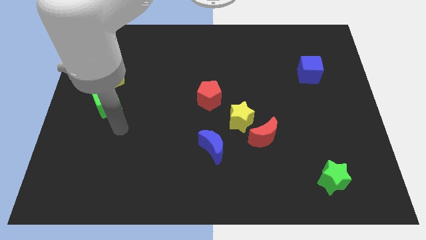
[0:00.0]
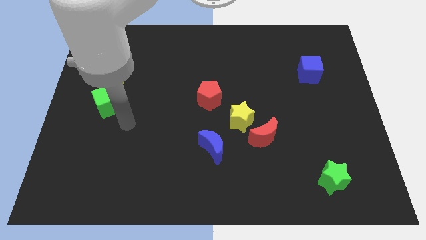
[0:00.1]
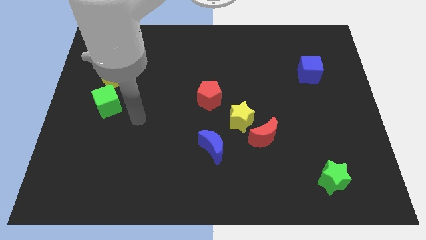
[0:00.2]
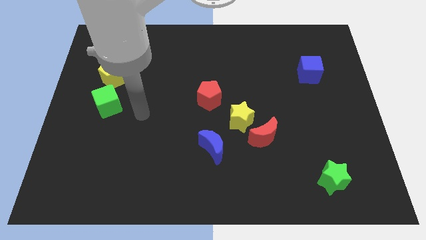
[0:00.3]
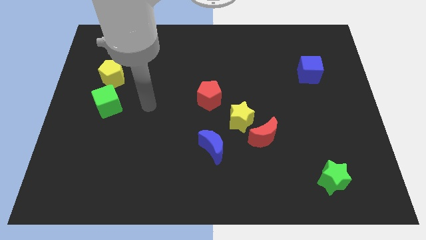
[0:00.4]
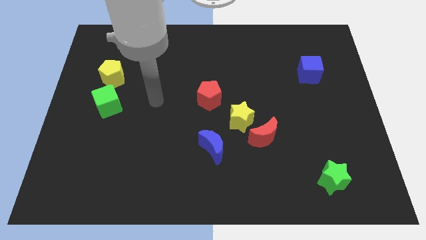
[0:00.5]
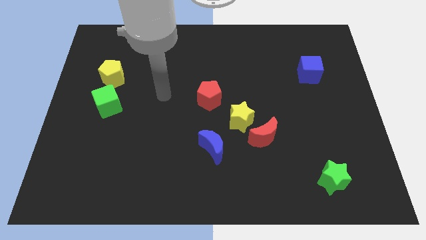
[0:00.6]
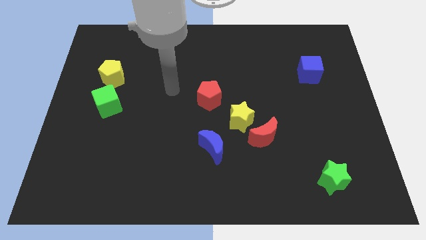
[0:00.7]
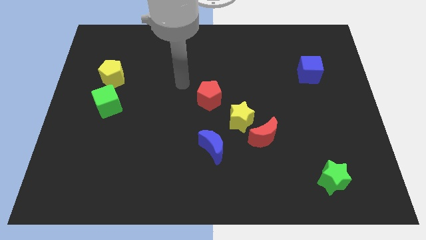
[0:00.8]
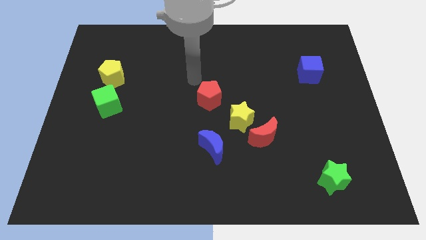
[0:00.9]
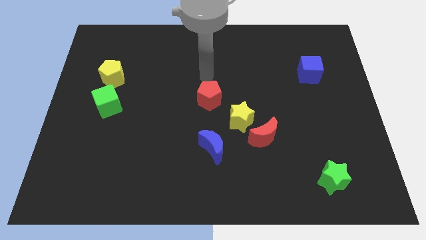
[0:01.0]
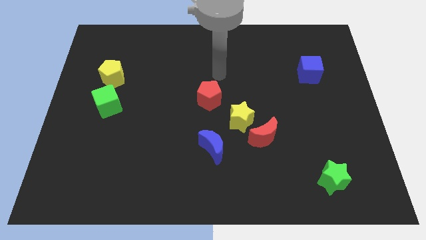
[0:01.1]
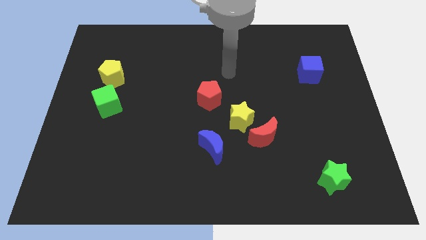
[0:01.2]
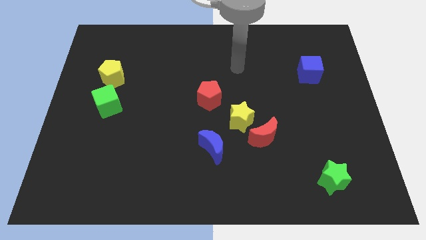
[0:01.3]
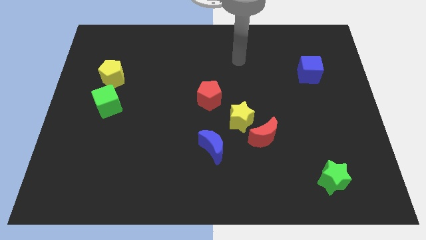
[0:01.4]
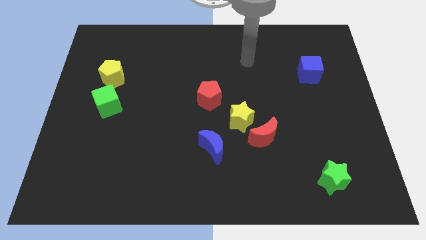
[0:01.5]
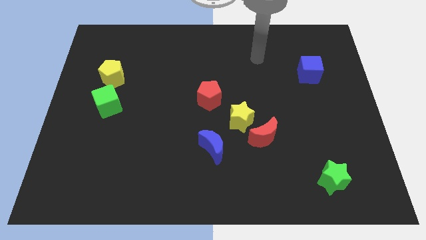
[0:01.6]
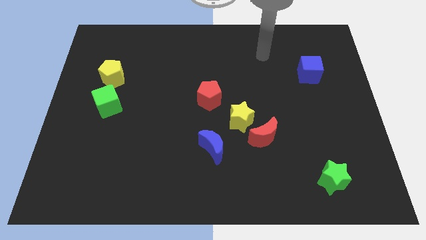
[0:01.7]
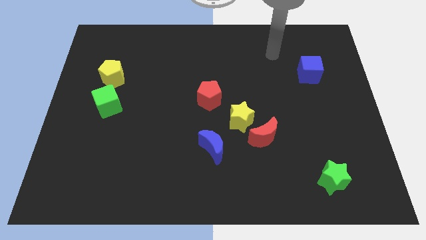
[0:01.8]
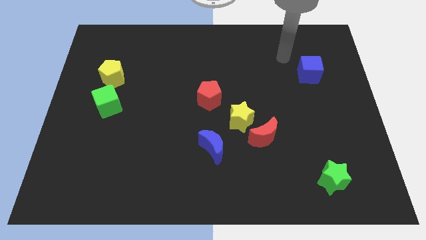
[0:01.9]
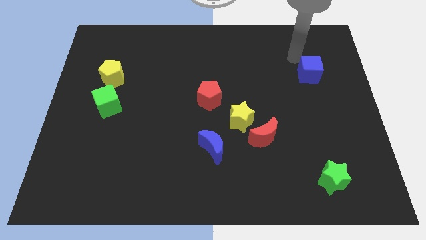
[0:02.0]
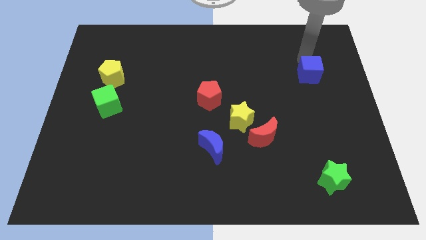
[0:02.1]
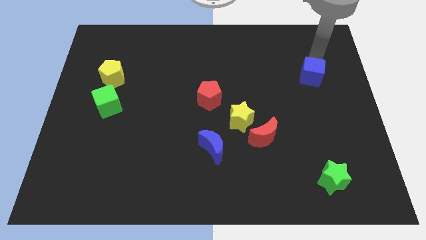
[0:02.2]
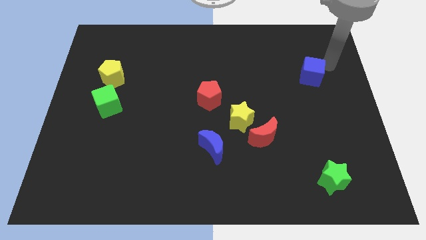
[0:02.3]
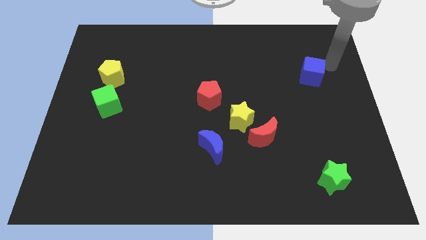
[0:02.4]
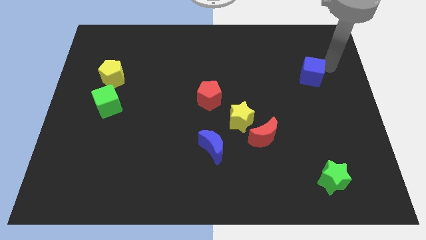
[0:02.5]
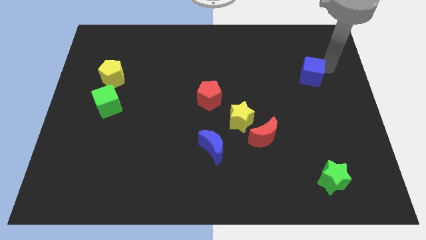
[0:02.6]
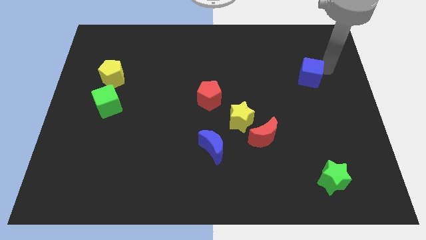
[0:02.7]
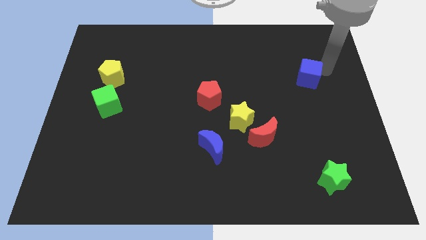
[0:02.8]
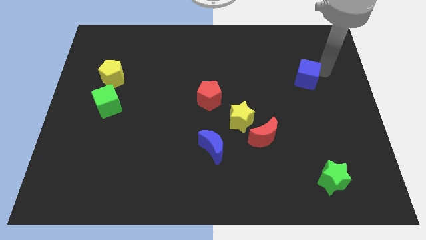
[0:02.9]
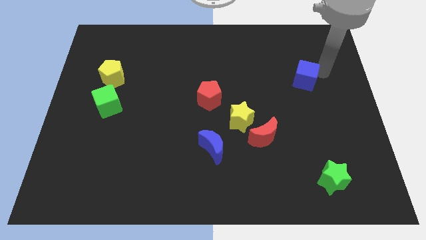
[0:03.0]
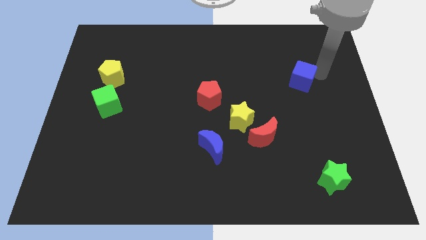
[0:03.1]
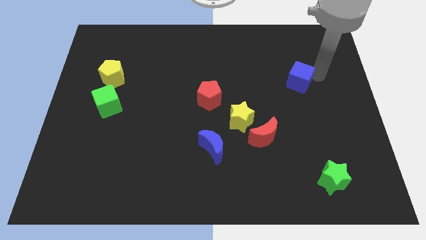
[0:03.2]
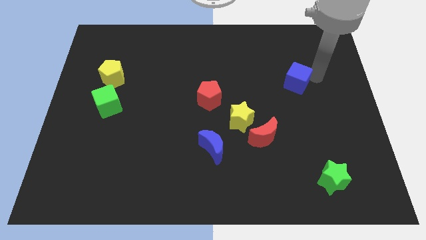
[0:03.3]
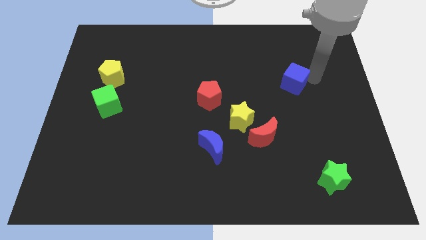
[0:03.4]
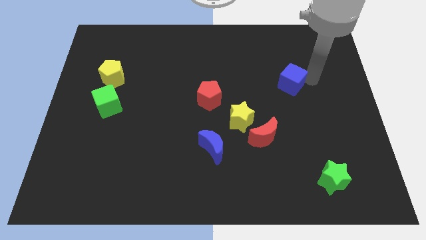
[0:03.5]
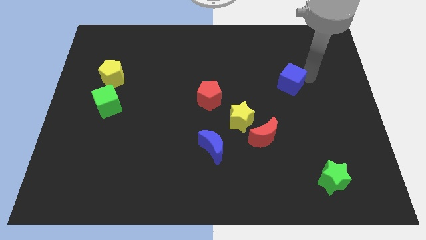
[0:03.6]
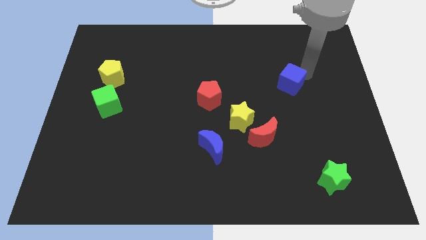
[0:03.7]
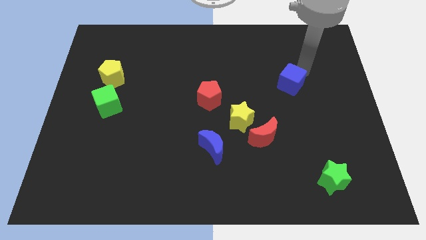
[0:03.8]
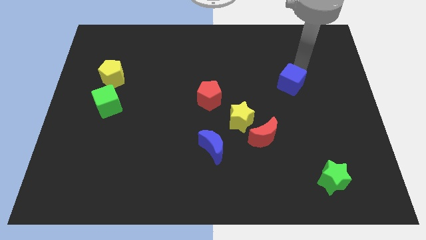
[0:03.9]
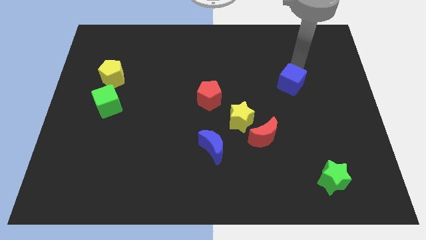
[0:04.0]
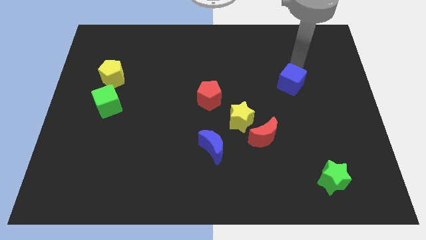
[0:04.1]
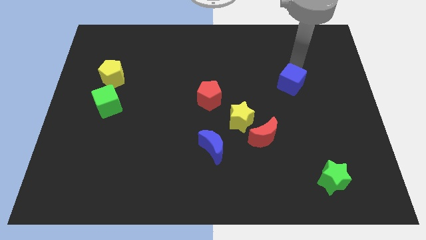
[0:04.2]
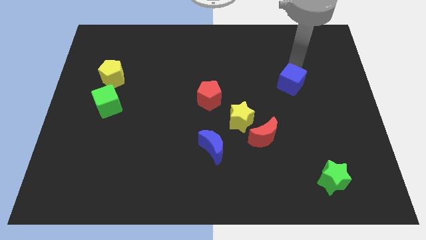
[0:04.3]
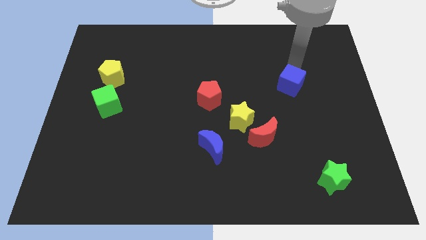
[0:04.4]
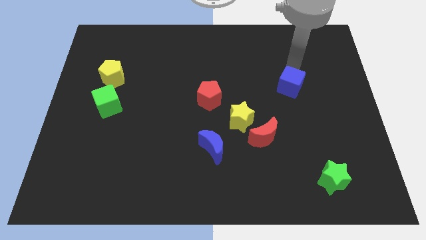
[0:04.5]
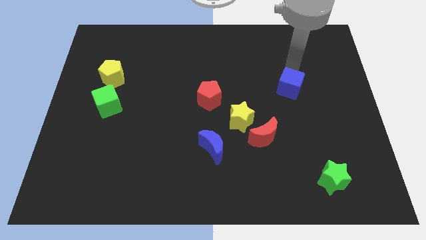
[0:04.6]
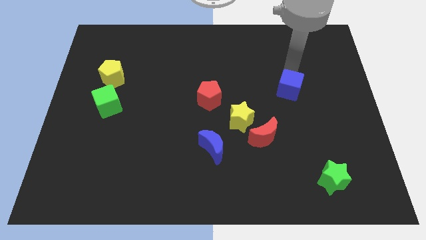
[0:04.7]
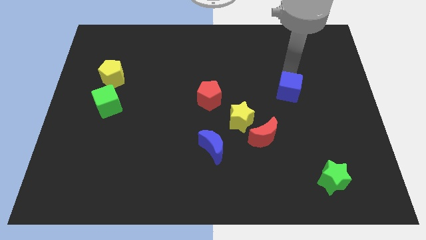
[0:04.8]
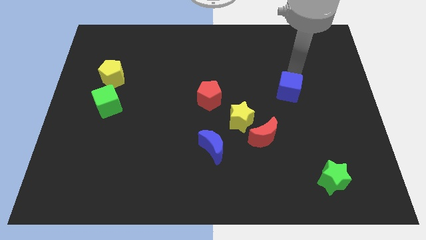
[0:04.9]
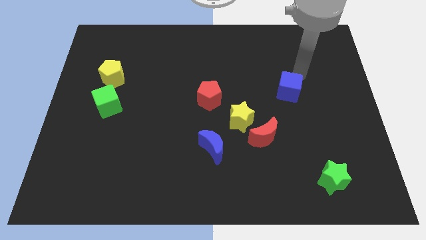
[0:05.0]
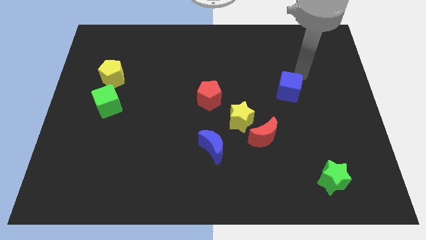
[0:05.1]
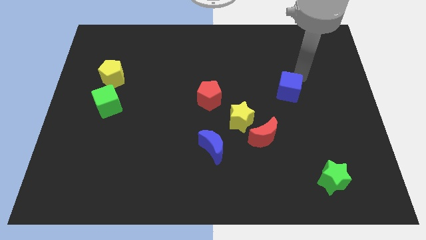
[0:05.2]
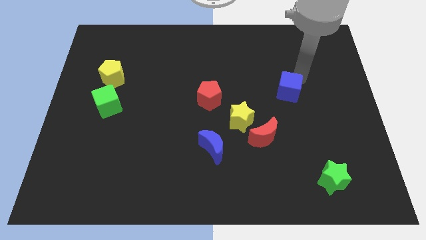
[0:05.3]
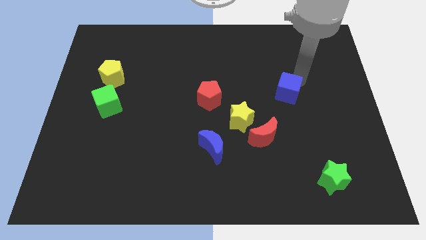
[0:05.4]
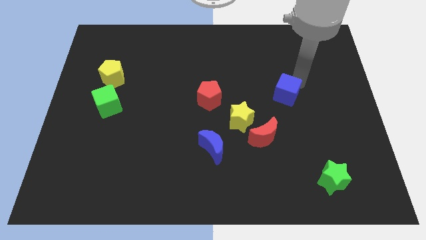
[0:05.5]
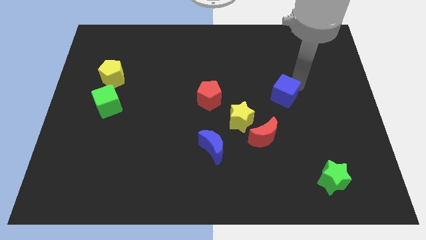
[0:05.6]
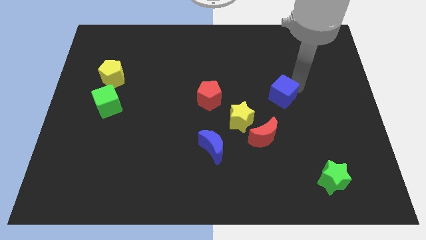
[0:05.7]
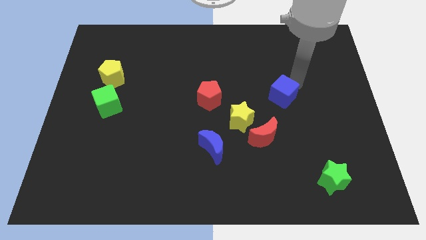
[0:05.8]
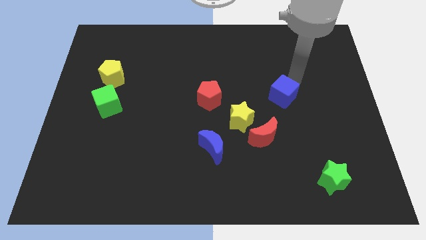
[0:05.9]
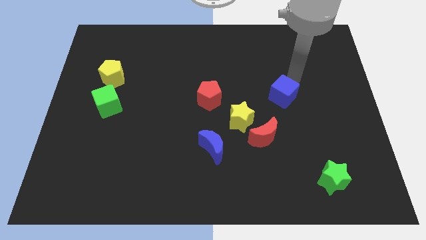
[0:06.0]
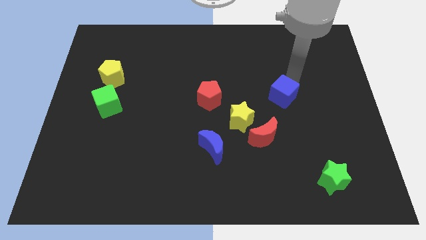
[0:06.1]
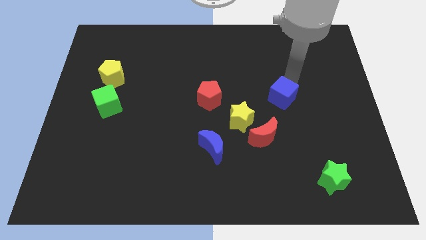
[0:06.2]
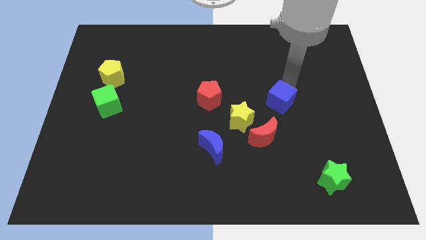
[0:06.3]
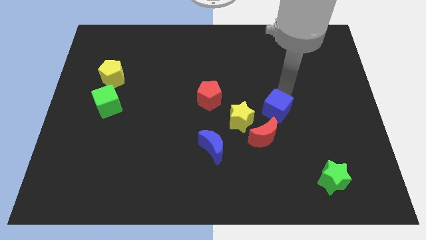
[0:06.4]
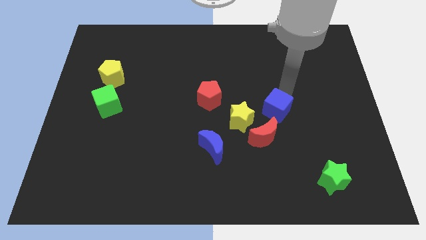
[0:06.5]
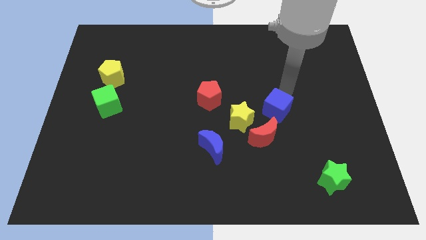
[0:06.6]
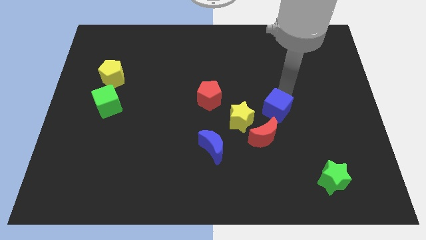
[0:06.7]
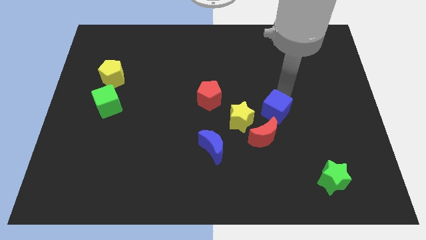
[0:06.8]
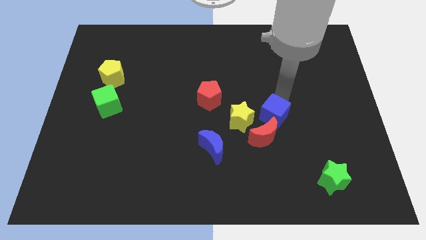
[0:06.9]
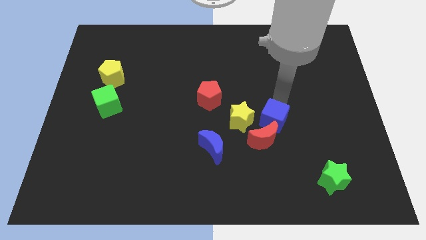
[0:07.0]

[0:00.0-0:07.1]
push the blue cube towards the red moon
